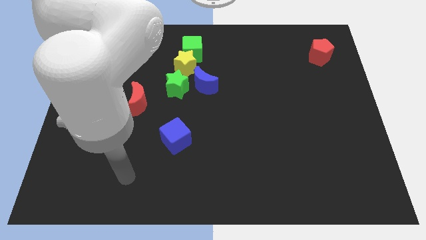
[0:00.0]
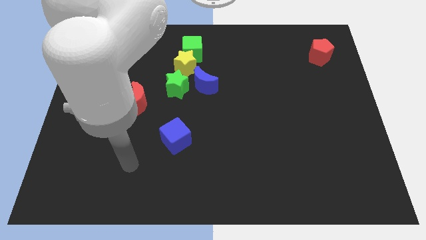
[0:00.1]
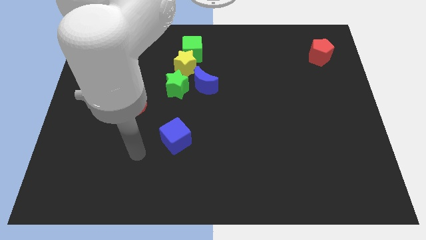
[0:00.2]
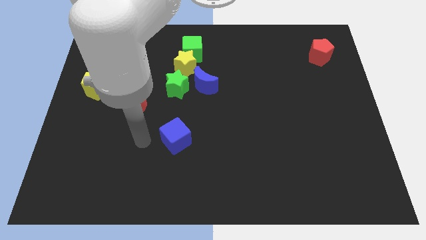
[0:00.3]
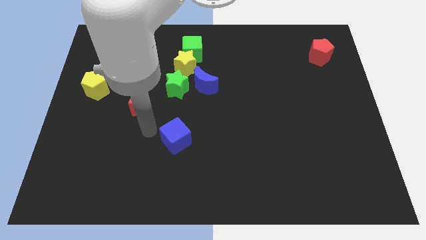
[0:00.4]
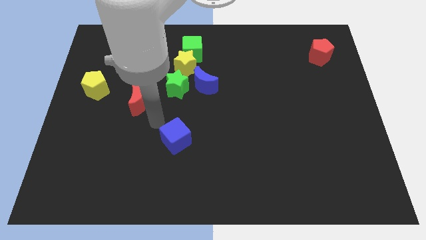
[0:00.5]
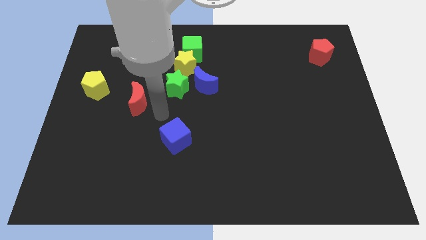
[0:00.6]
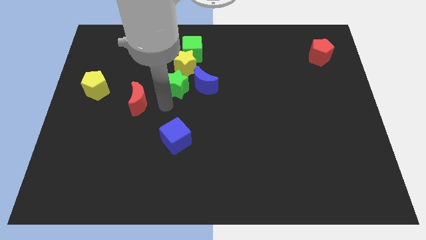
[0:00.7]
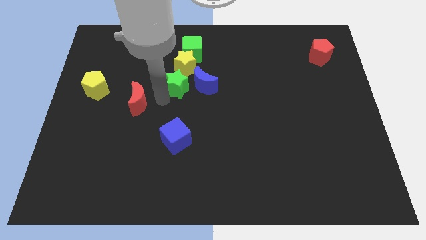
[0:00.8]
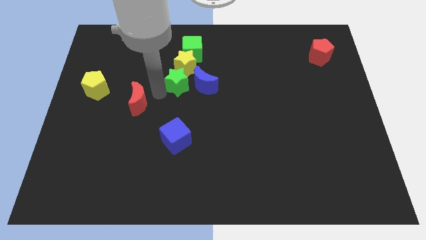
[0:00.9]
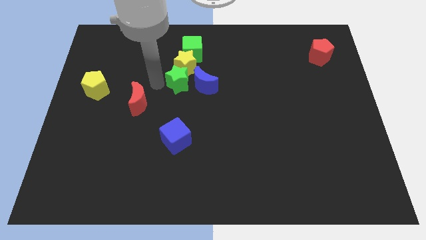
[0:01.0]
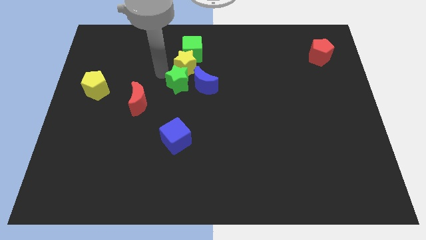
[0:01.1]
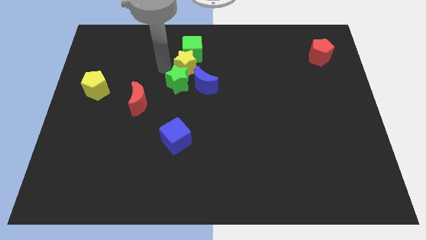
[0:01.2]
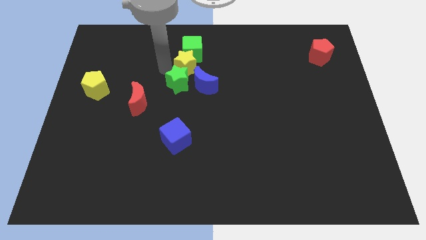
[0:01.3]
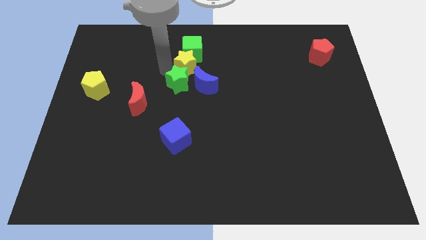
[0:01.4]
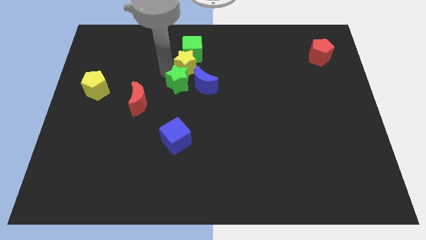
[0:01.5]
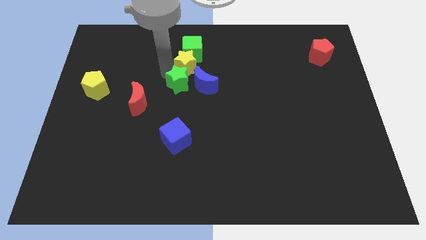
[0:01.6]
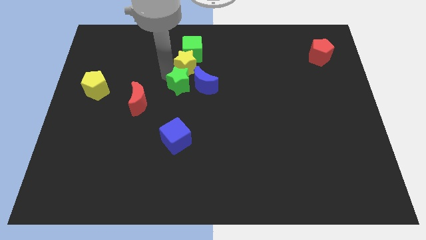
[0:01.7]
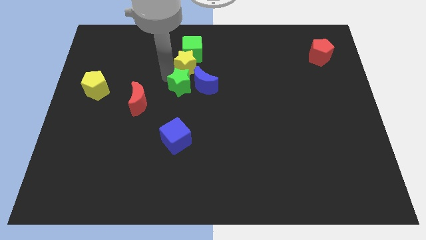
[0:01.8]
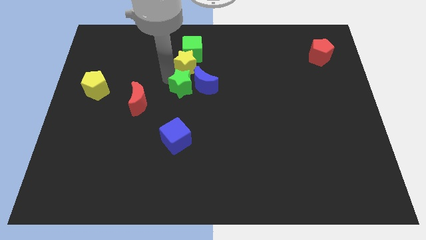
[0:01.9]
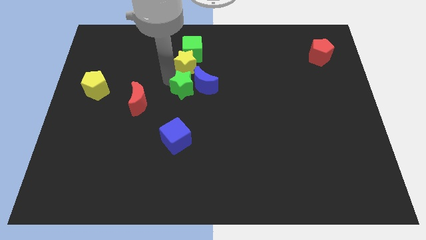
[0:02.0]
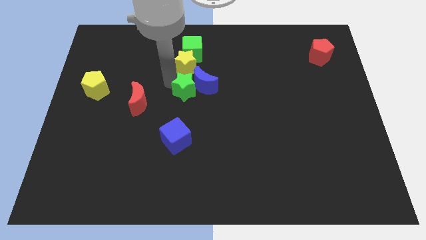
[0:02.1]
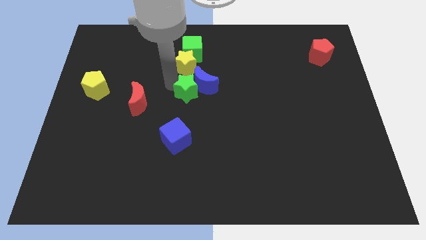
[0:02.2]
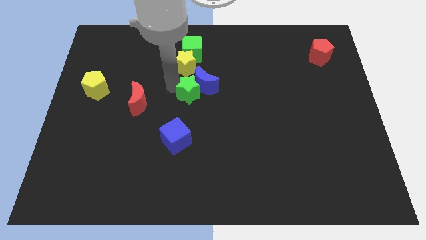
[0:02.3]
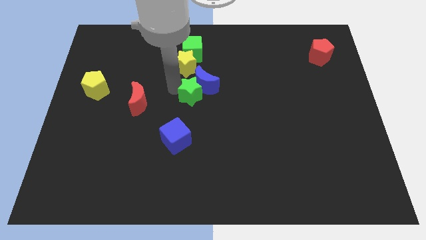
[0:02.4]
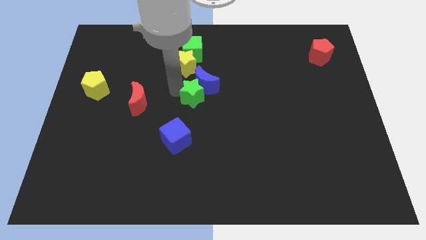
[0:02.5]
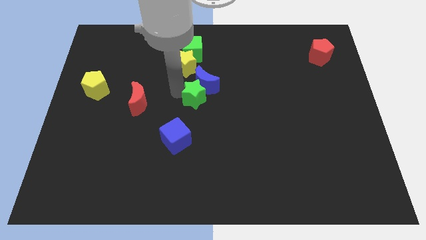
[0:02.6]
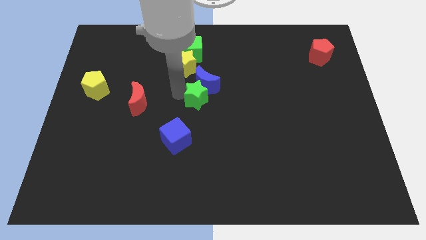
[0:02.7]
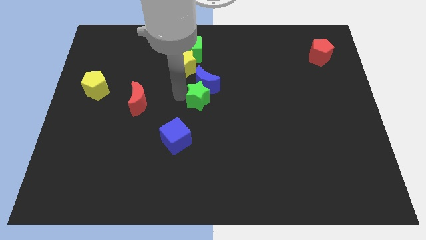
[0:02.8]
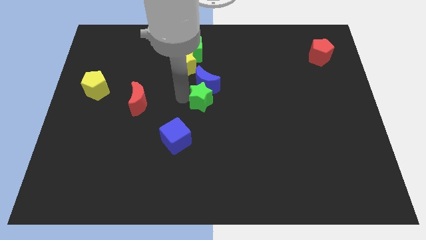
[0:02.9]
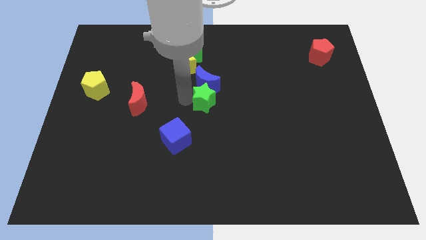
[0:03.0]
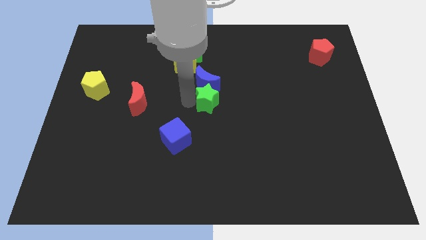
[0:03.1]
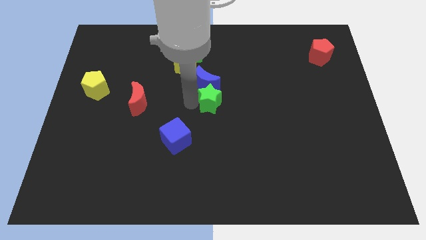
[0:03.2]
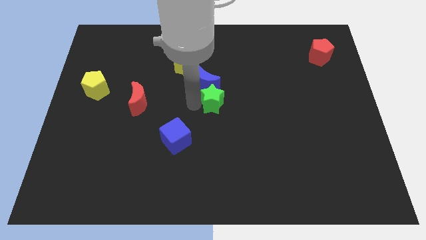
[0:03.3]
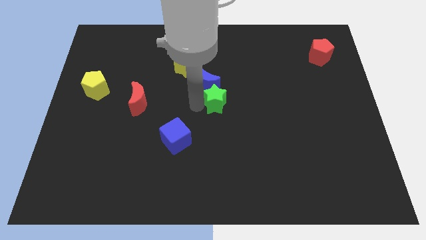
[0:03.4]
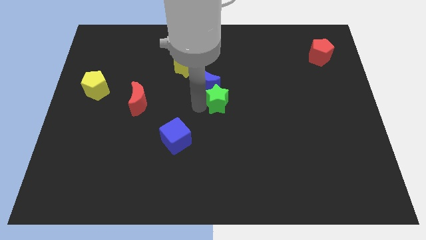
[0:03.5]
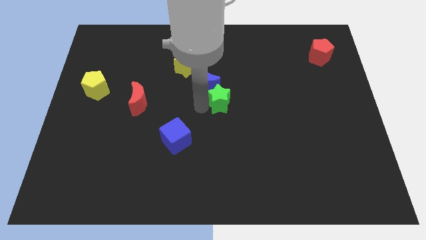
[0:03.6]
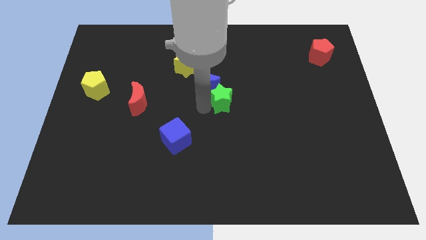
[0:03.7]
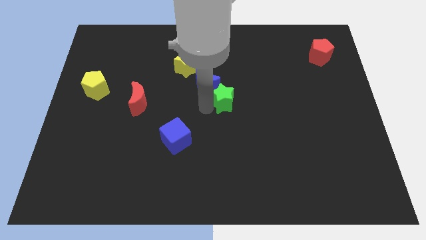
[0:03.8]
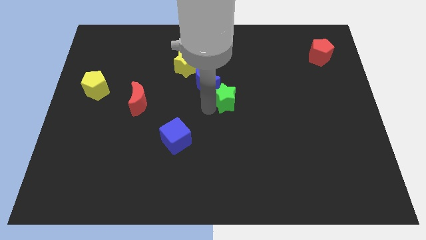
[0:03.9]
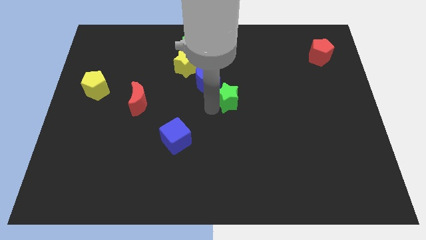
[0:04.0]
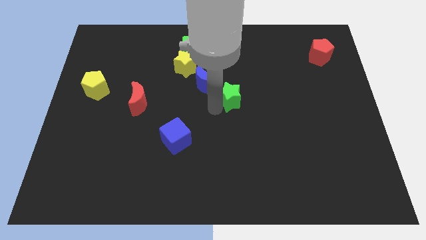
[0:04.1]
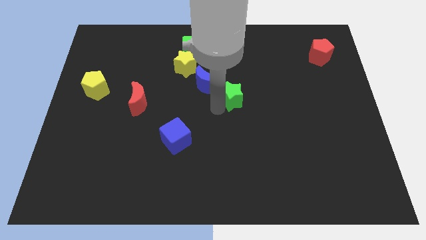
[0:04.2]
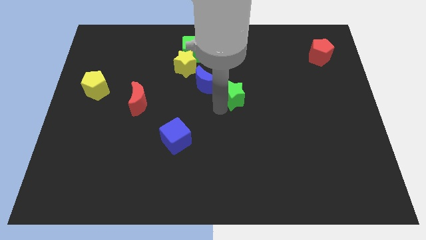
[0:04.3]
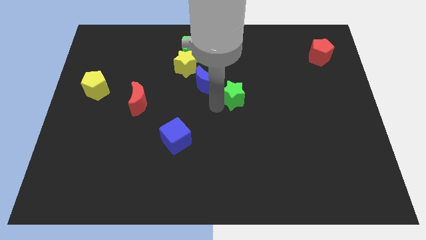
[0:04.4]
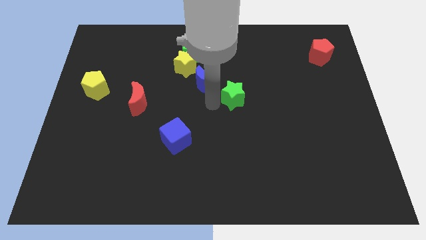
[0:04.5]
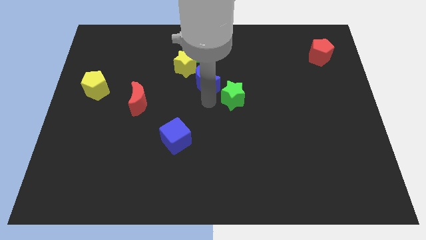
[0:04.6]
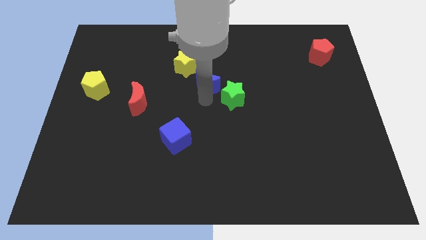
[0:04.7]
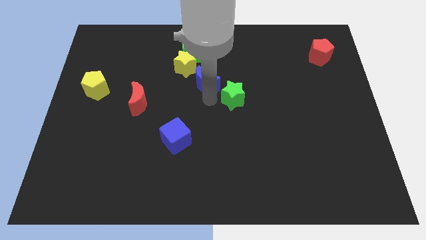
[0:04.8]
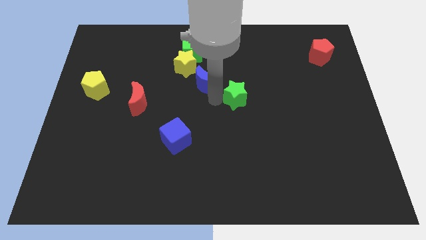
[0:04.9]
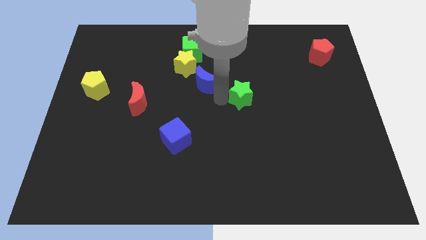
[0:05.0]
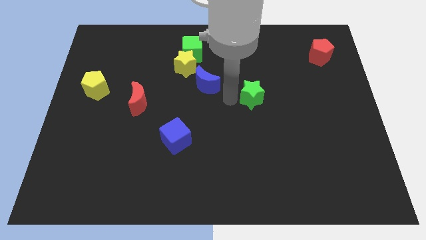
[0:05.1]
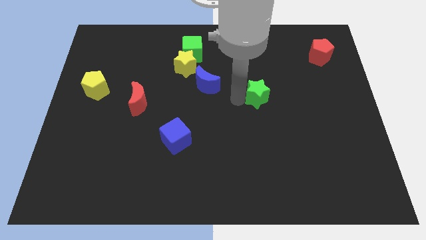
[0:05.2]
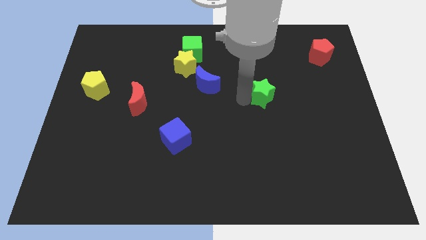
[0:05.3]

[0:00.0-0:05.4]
slide the green star to the right

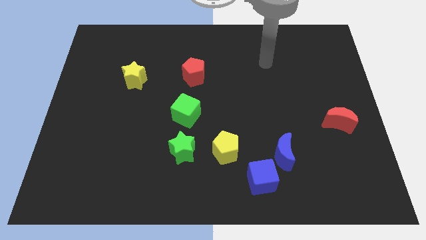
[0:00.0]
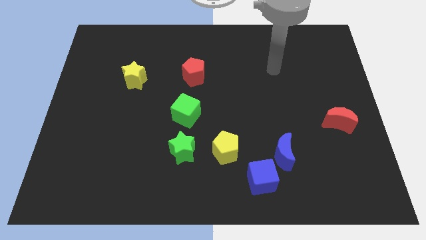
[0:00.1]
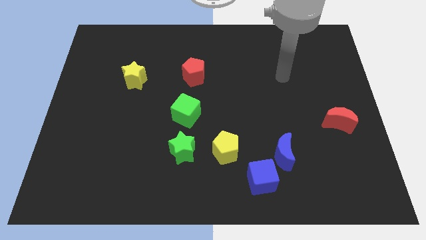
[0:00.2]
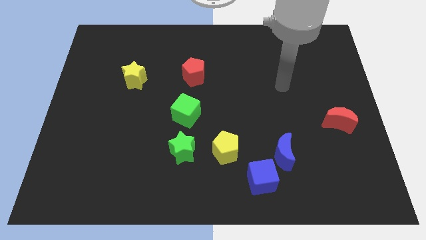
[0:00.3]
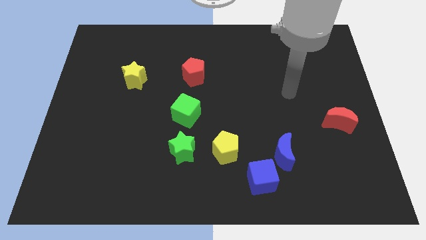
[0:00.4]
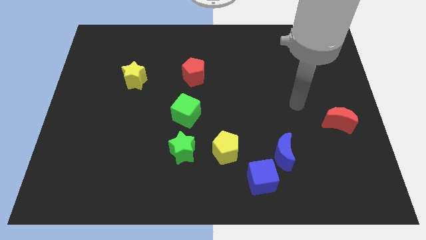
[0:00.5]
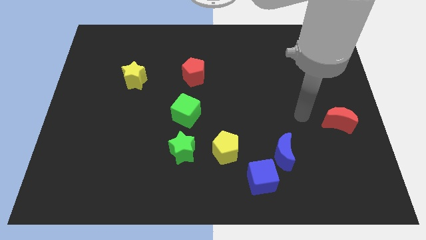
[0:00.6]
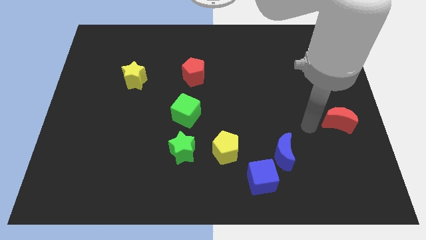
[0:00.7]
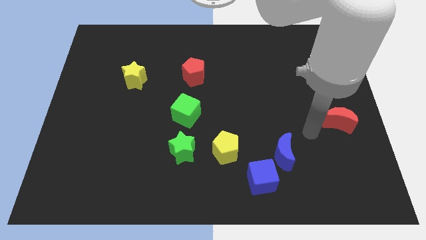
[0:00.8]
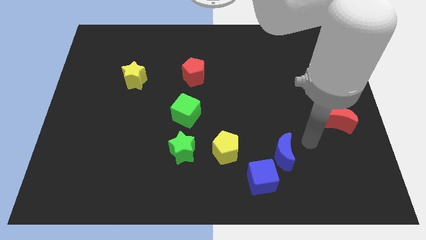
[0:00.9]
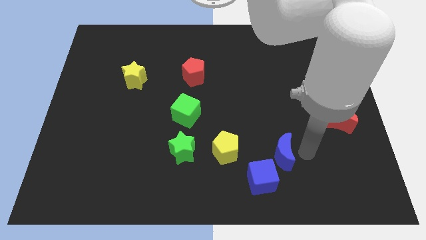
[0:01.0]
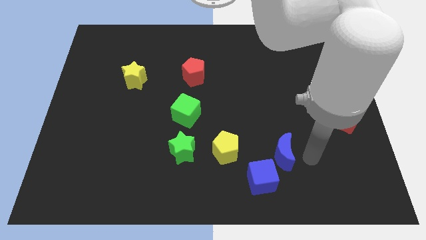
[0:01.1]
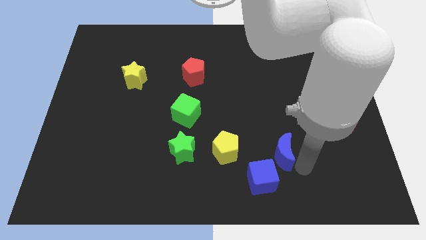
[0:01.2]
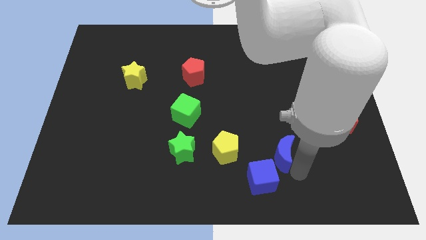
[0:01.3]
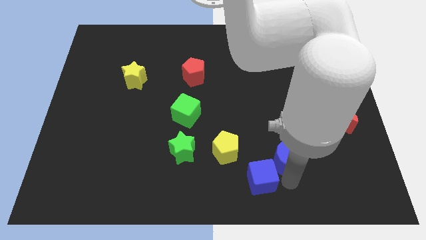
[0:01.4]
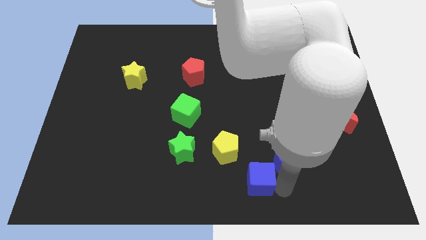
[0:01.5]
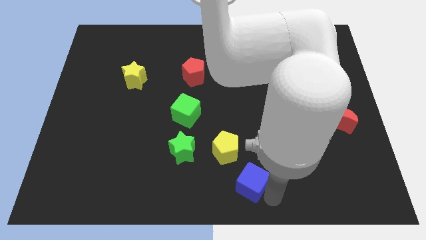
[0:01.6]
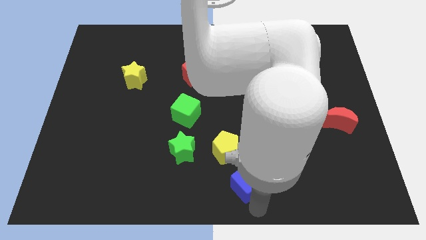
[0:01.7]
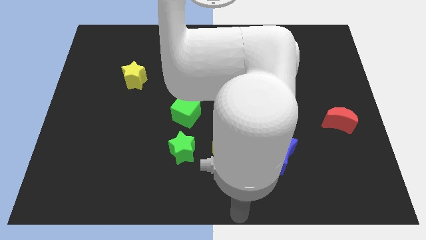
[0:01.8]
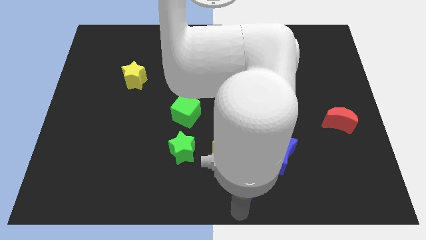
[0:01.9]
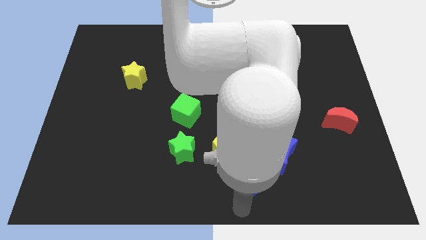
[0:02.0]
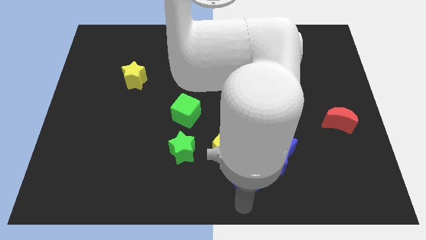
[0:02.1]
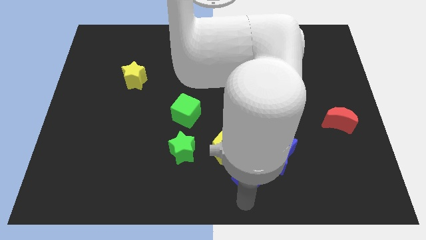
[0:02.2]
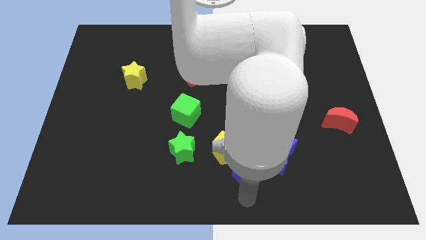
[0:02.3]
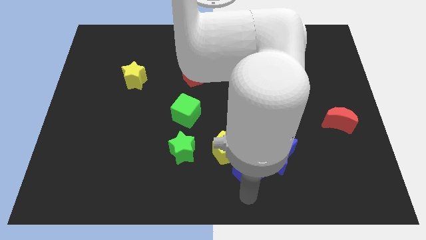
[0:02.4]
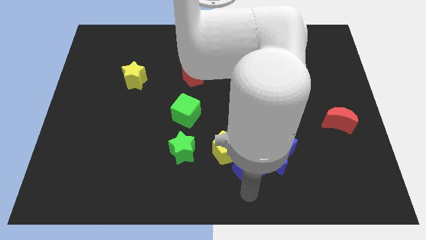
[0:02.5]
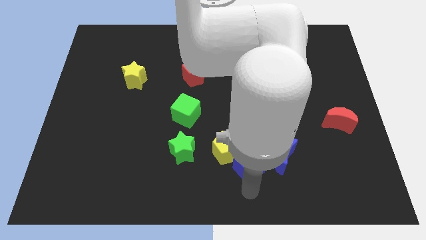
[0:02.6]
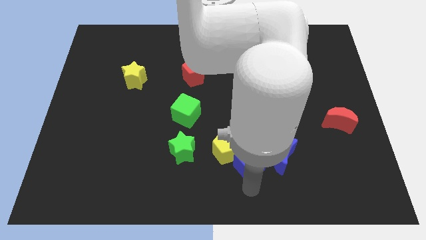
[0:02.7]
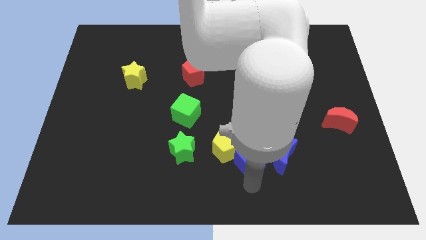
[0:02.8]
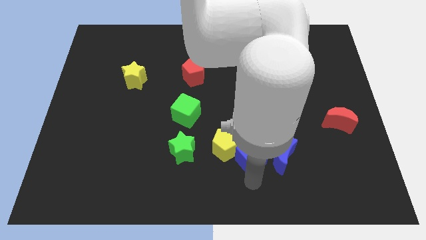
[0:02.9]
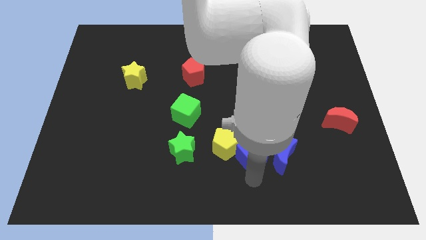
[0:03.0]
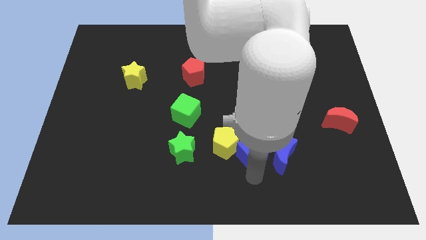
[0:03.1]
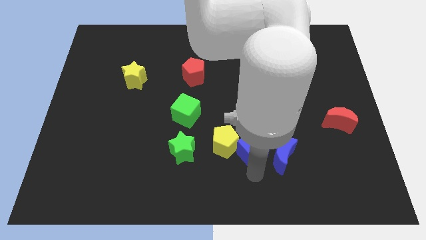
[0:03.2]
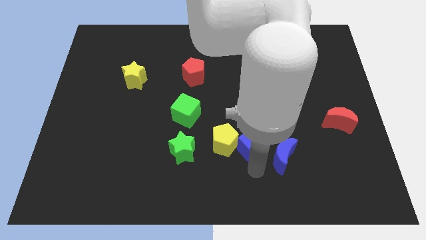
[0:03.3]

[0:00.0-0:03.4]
move the blue cube a little bit up
